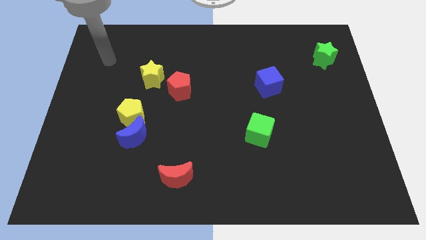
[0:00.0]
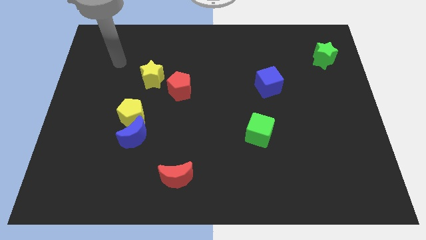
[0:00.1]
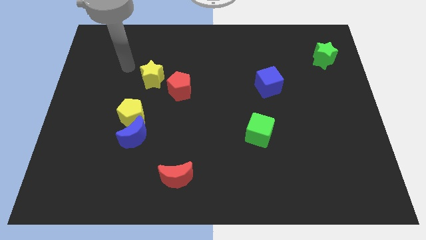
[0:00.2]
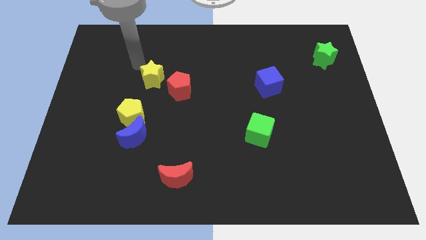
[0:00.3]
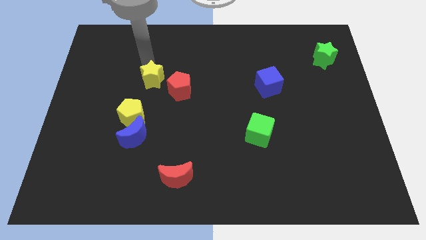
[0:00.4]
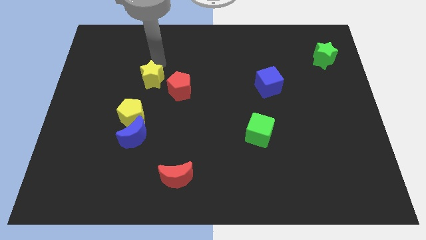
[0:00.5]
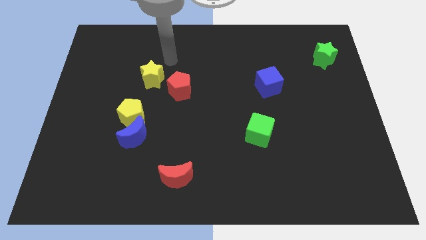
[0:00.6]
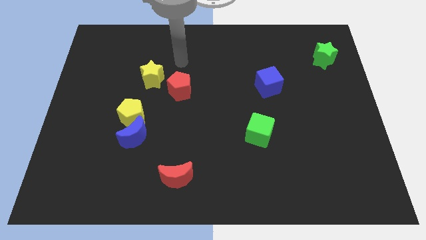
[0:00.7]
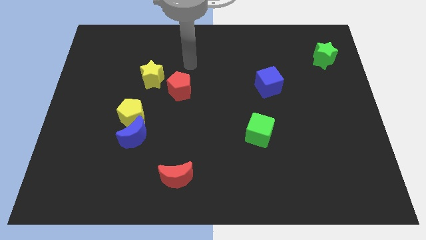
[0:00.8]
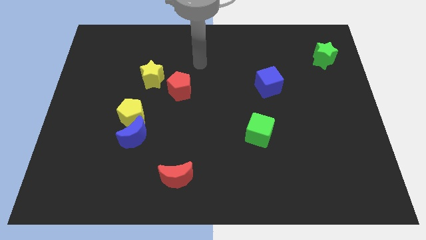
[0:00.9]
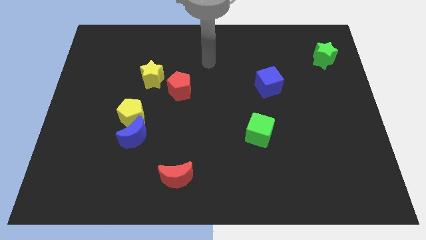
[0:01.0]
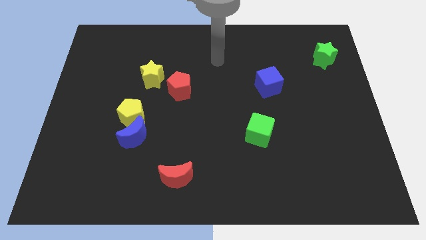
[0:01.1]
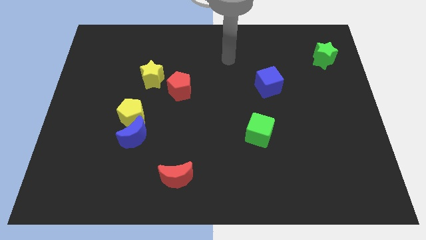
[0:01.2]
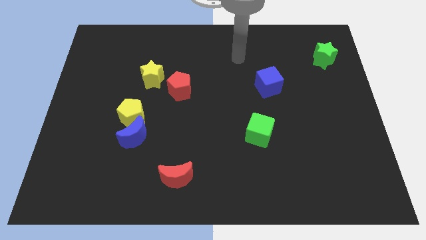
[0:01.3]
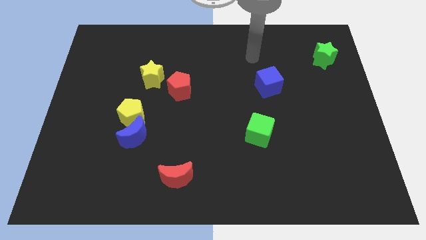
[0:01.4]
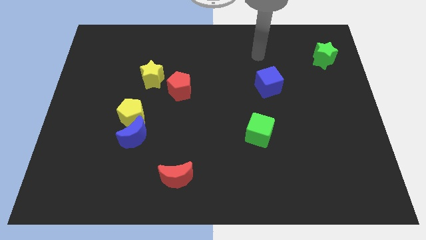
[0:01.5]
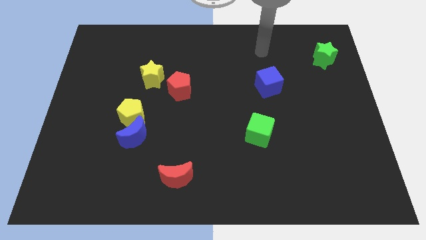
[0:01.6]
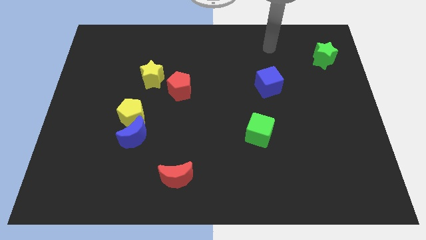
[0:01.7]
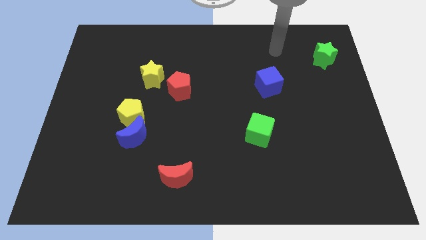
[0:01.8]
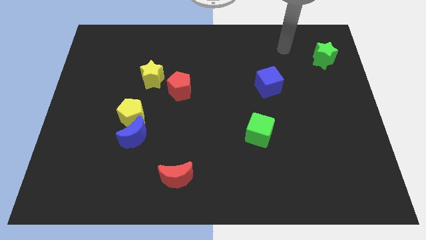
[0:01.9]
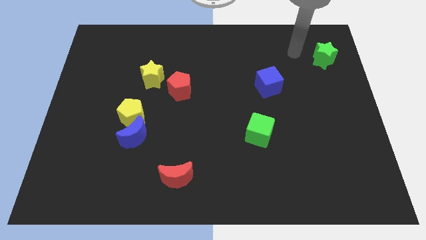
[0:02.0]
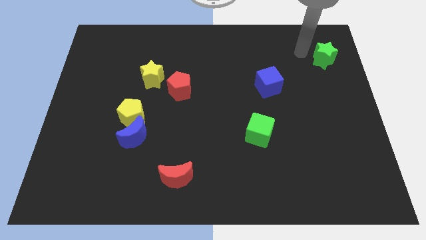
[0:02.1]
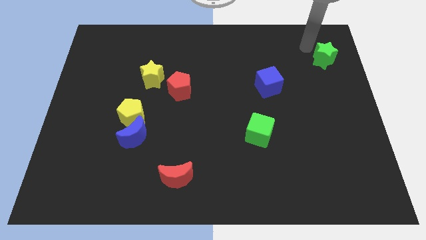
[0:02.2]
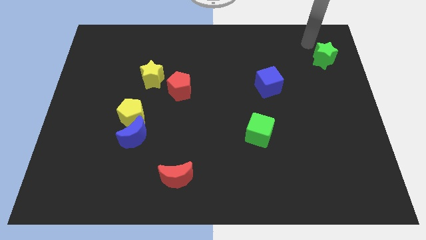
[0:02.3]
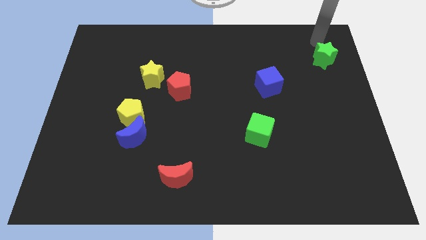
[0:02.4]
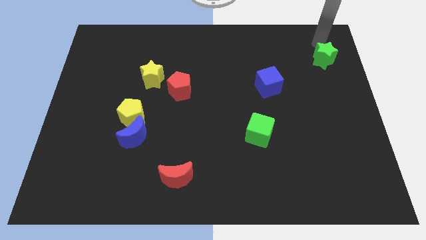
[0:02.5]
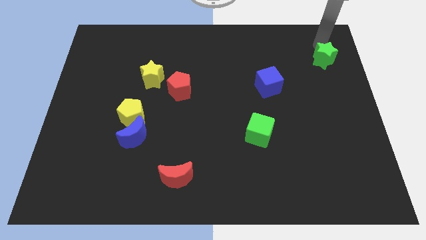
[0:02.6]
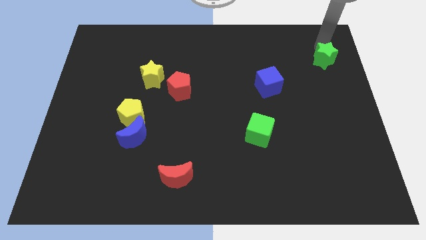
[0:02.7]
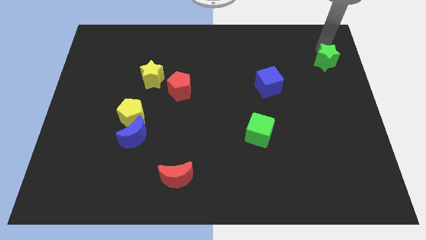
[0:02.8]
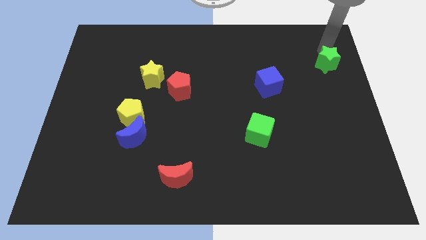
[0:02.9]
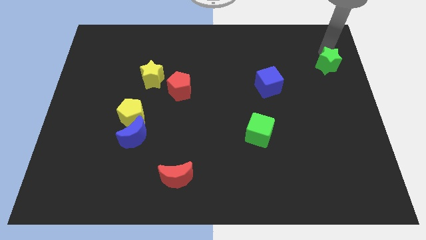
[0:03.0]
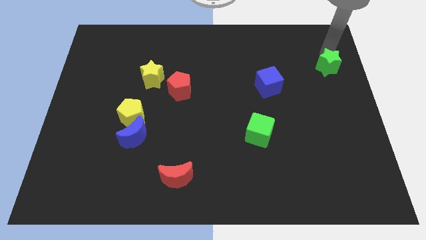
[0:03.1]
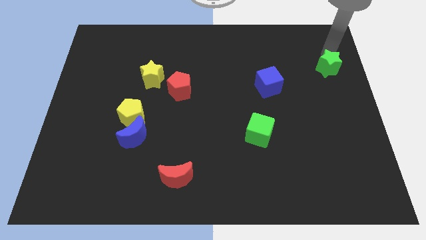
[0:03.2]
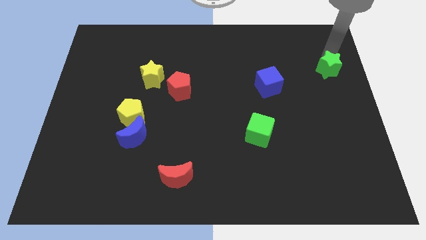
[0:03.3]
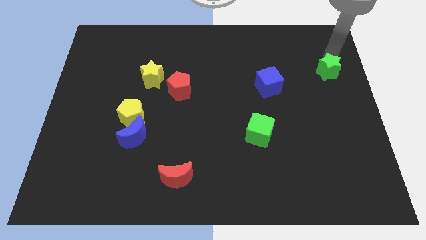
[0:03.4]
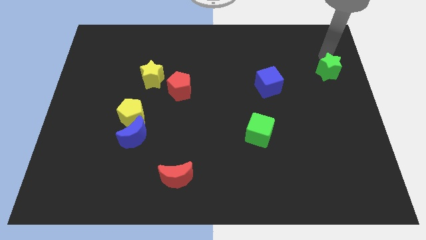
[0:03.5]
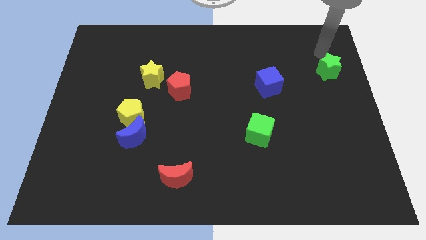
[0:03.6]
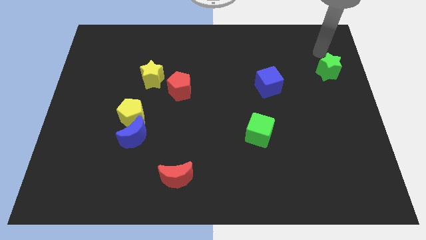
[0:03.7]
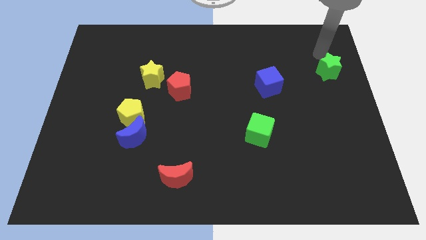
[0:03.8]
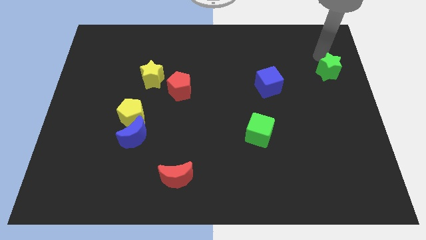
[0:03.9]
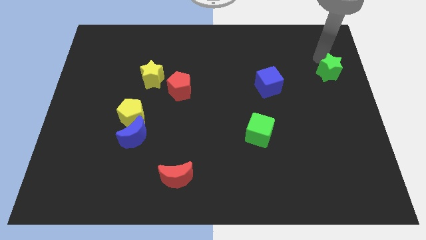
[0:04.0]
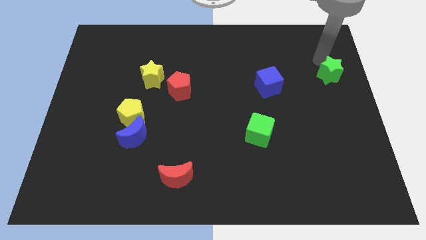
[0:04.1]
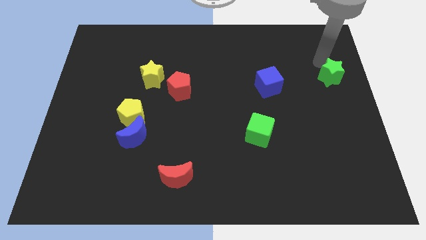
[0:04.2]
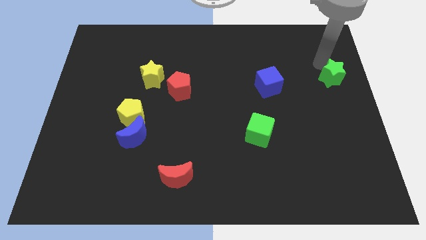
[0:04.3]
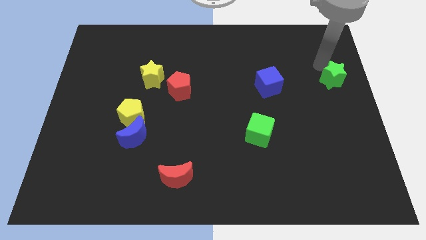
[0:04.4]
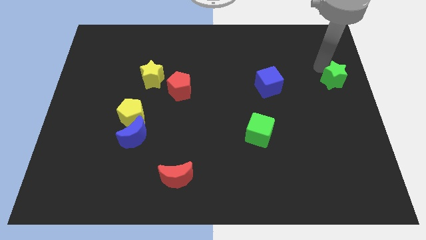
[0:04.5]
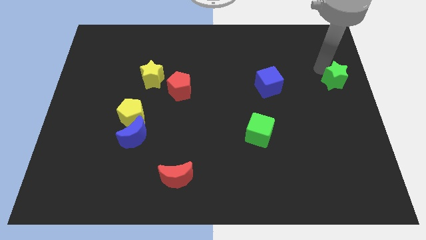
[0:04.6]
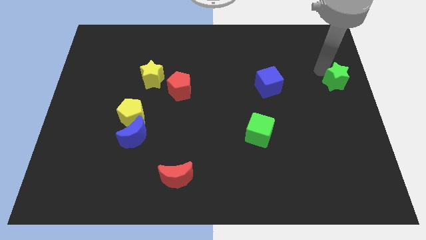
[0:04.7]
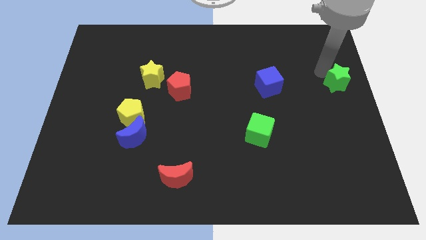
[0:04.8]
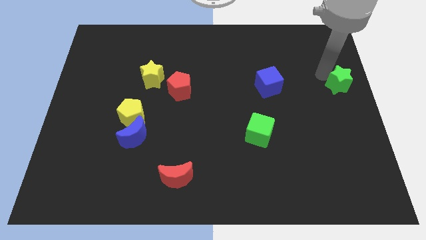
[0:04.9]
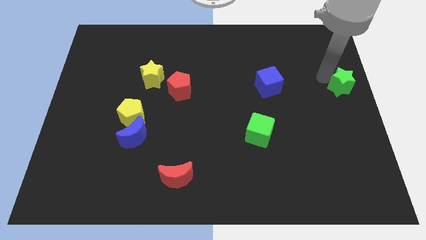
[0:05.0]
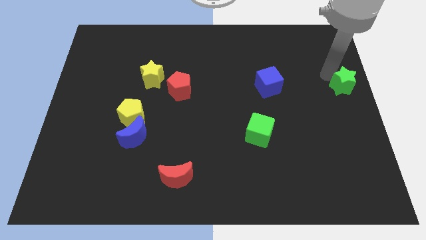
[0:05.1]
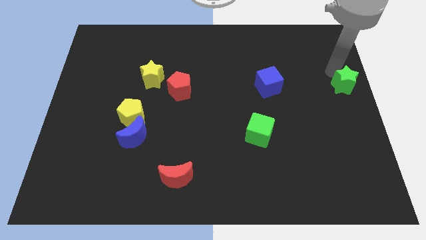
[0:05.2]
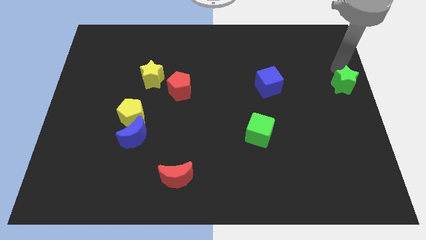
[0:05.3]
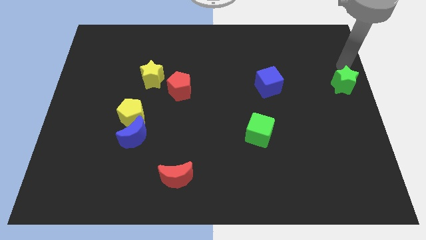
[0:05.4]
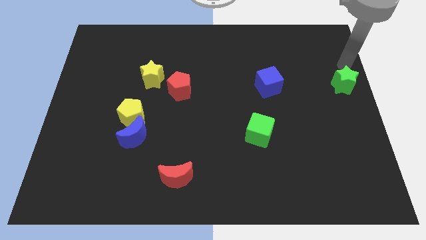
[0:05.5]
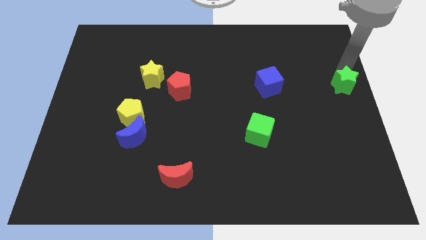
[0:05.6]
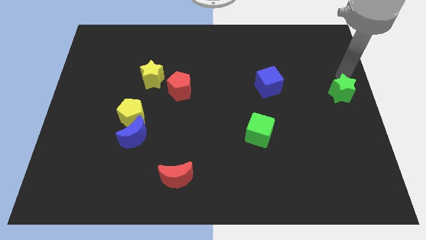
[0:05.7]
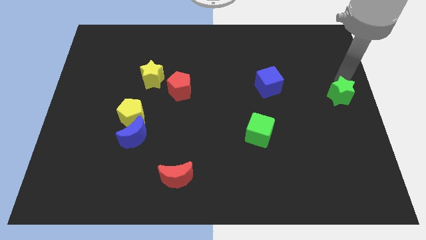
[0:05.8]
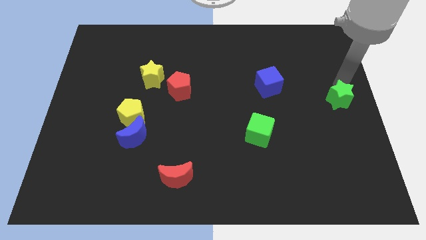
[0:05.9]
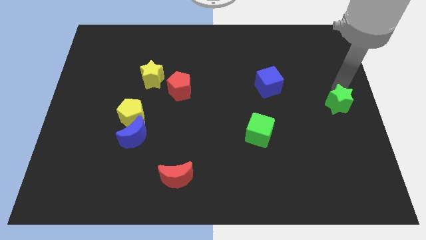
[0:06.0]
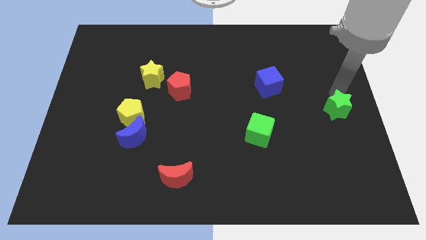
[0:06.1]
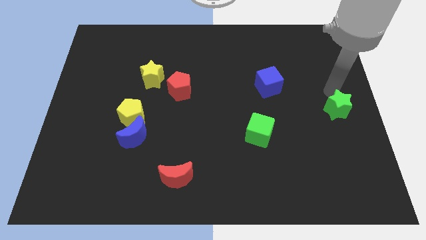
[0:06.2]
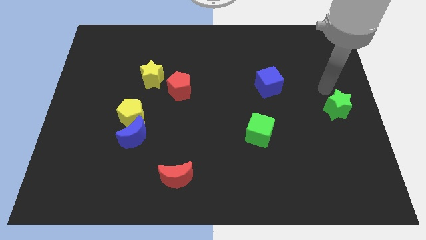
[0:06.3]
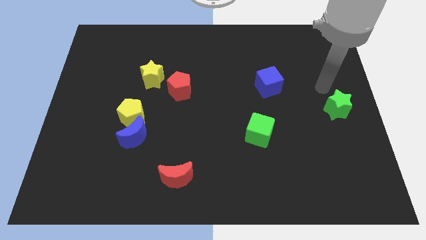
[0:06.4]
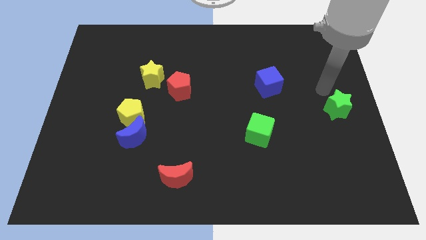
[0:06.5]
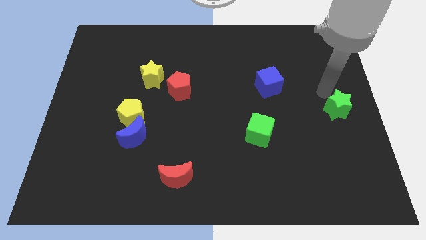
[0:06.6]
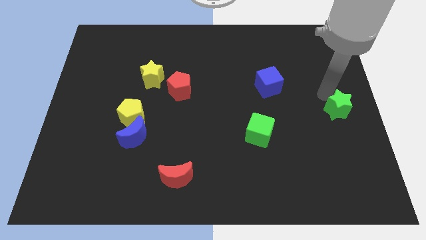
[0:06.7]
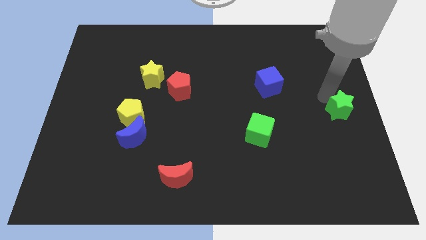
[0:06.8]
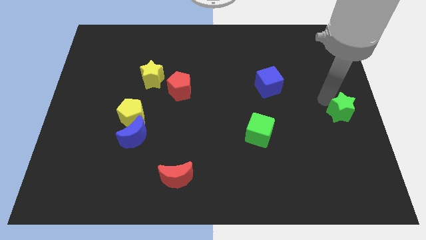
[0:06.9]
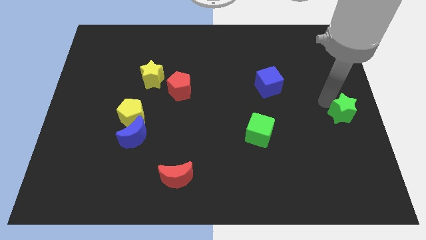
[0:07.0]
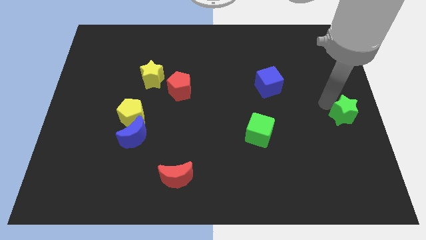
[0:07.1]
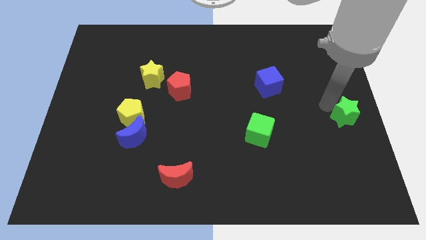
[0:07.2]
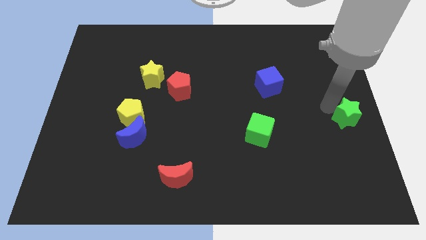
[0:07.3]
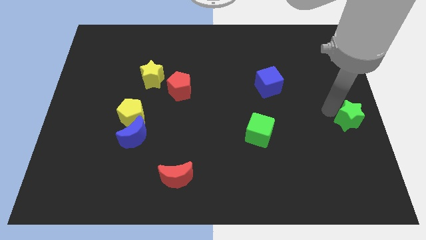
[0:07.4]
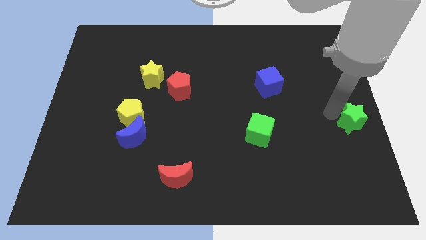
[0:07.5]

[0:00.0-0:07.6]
push the green star down

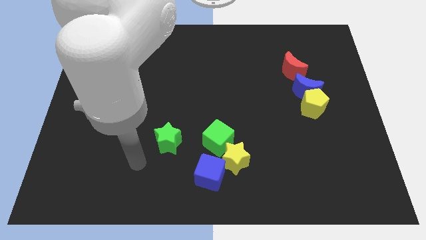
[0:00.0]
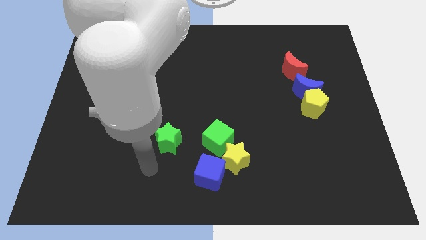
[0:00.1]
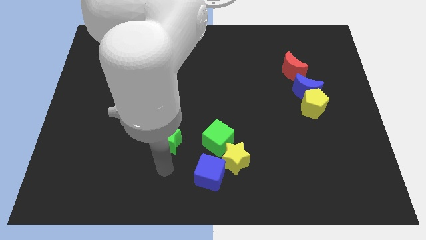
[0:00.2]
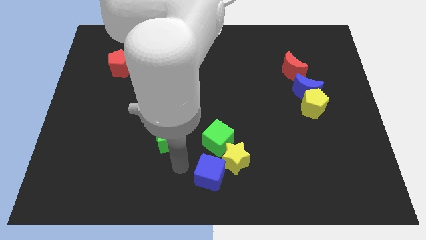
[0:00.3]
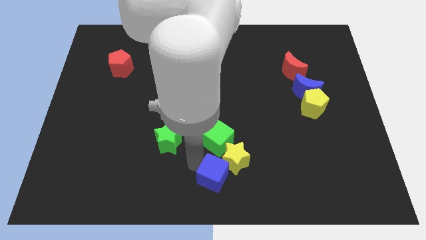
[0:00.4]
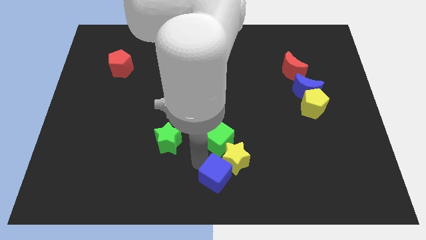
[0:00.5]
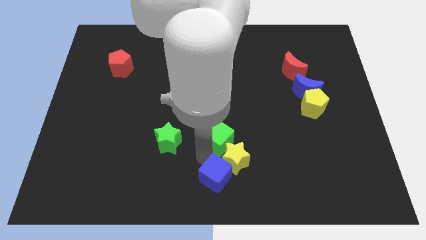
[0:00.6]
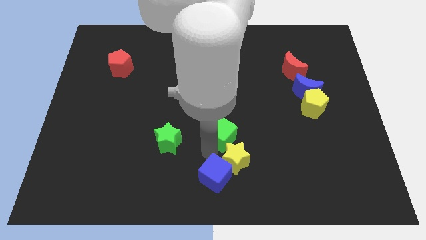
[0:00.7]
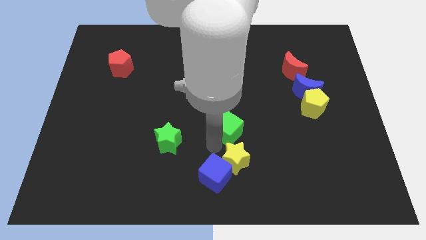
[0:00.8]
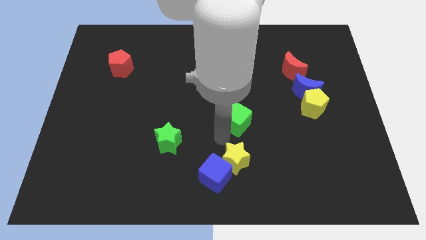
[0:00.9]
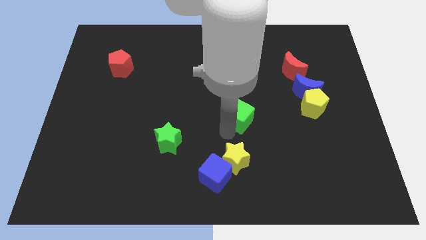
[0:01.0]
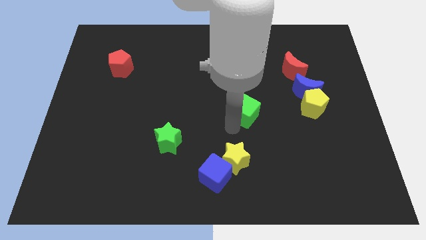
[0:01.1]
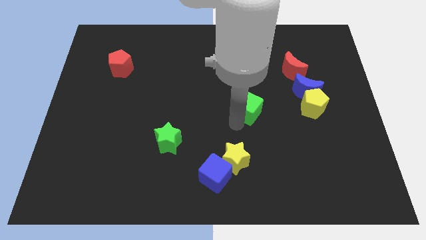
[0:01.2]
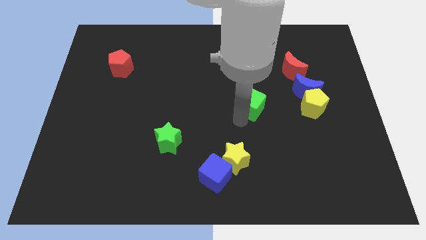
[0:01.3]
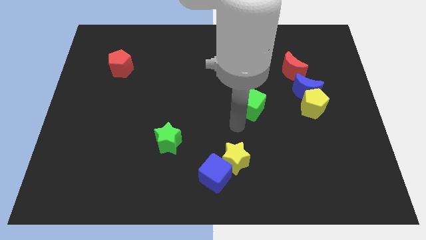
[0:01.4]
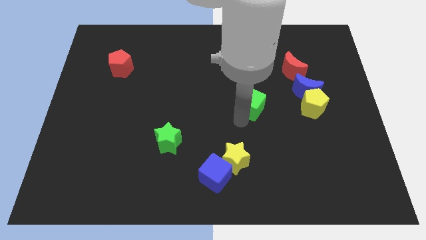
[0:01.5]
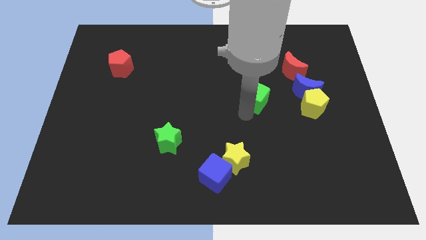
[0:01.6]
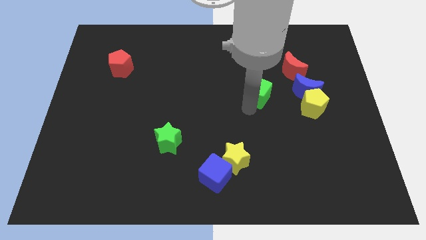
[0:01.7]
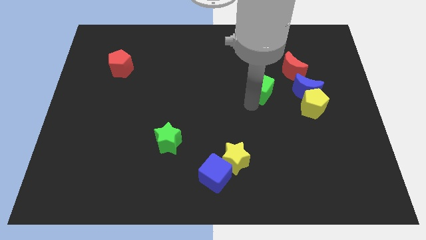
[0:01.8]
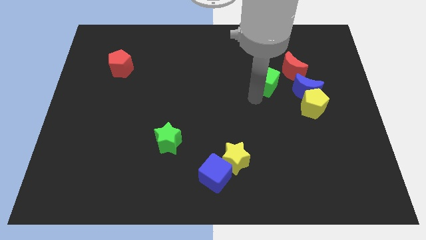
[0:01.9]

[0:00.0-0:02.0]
slide the green cube diagonally upwards and to the right
